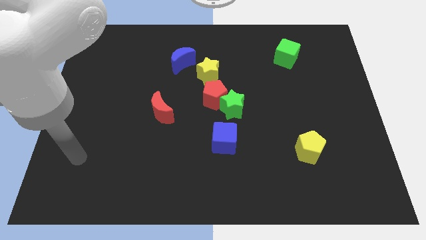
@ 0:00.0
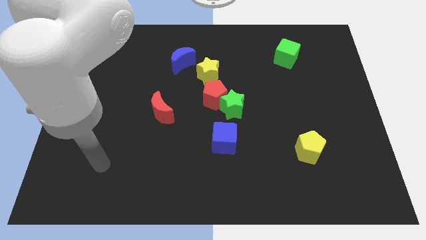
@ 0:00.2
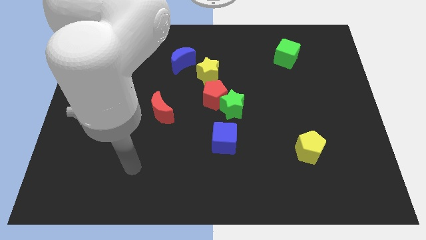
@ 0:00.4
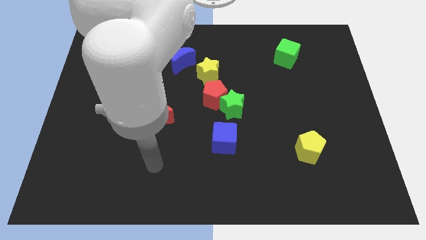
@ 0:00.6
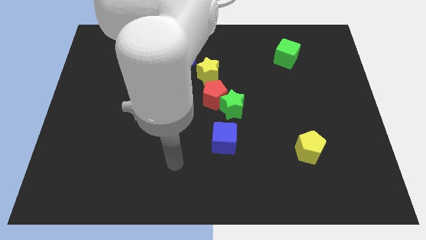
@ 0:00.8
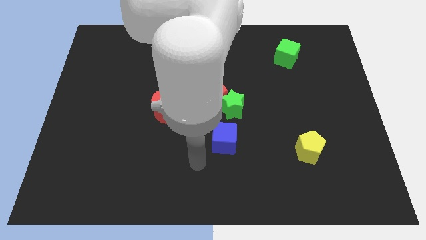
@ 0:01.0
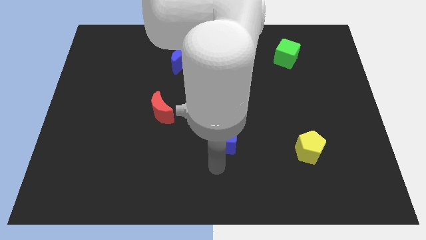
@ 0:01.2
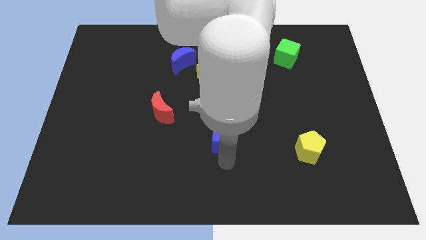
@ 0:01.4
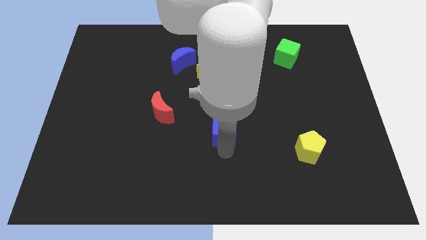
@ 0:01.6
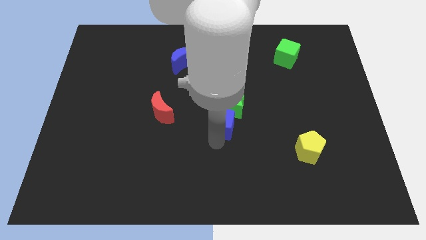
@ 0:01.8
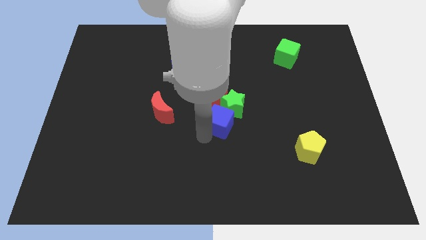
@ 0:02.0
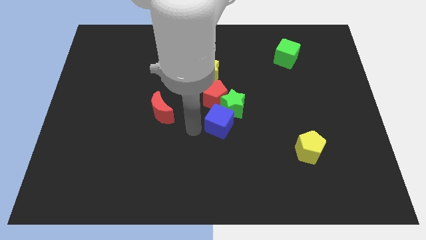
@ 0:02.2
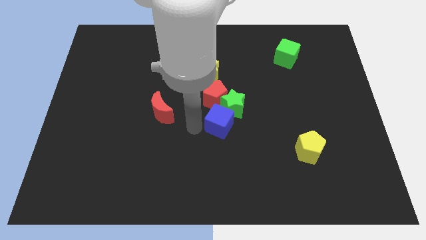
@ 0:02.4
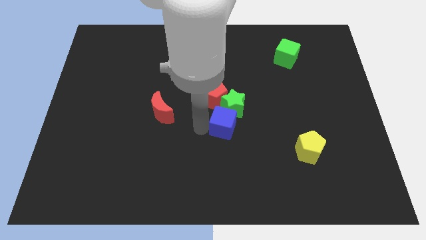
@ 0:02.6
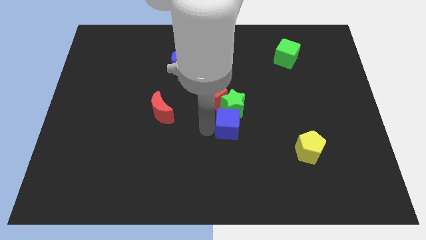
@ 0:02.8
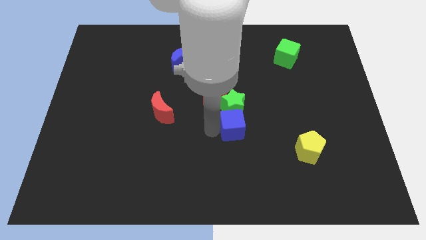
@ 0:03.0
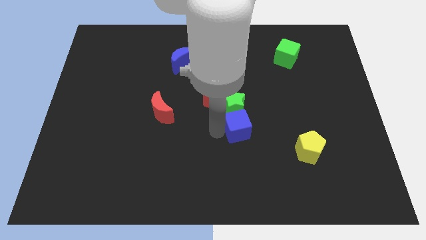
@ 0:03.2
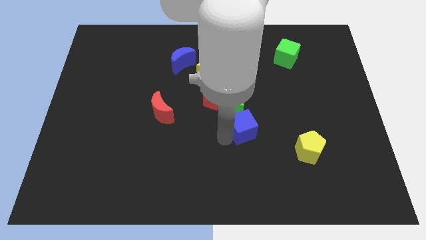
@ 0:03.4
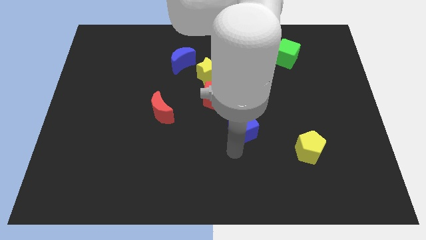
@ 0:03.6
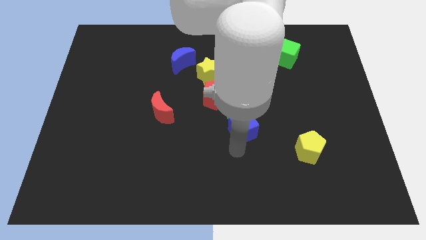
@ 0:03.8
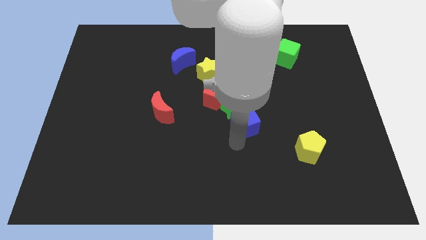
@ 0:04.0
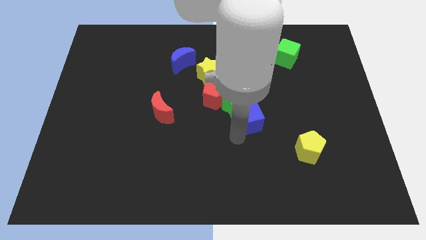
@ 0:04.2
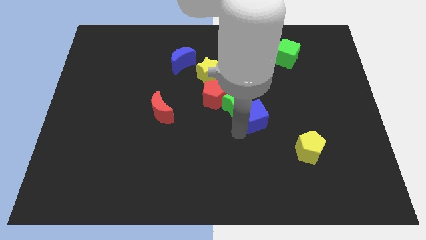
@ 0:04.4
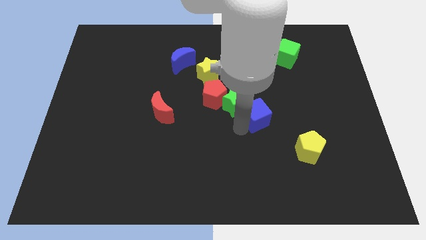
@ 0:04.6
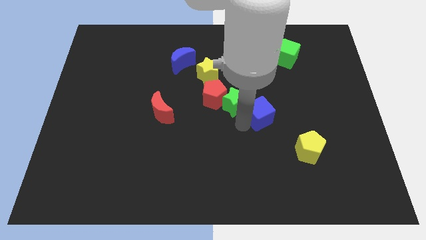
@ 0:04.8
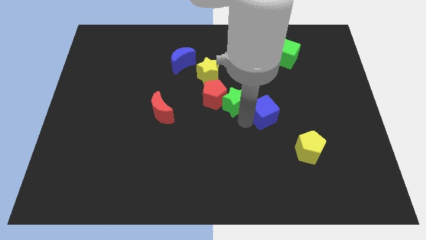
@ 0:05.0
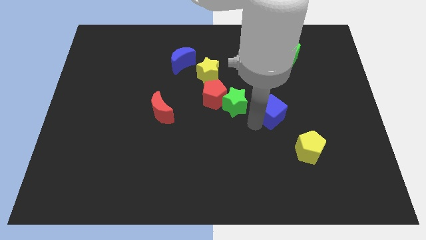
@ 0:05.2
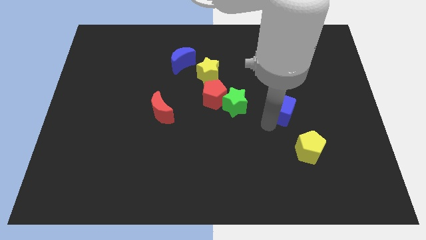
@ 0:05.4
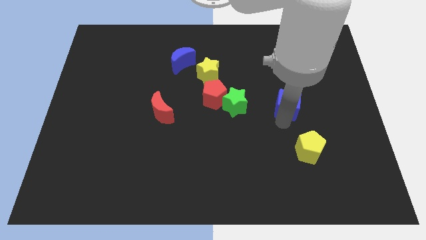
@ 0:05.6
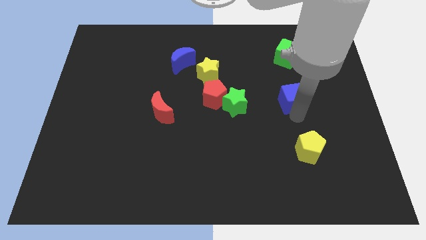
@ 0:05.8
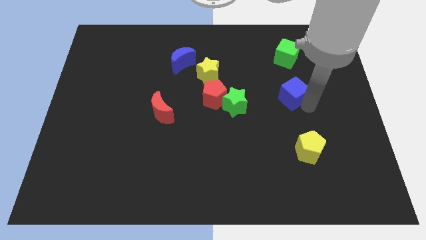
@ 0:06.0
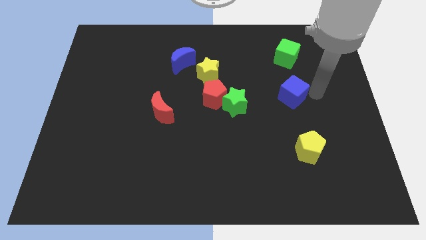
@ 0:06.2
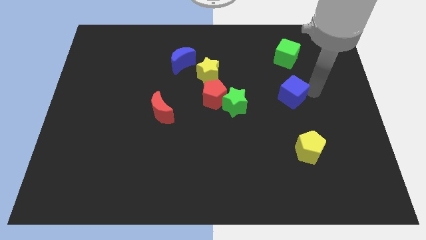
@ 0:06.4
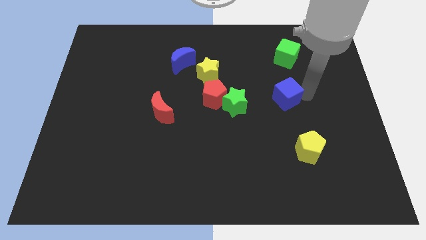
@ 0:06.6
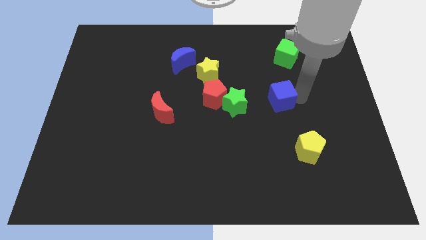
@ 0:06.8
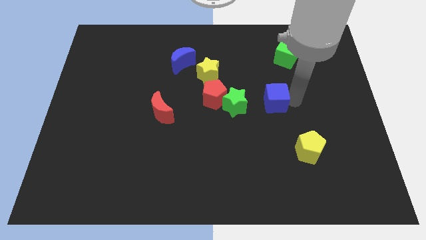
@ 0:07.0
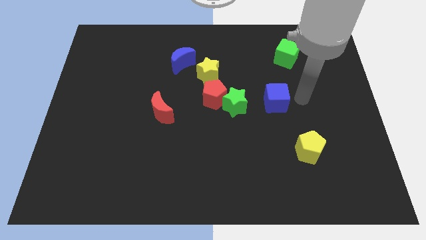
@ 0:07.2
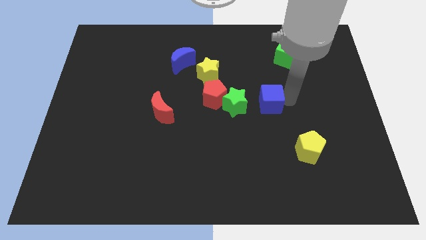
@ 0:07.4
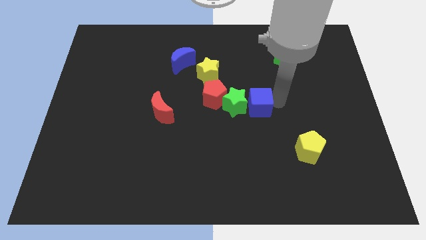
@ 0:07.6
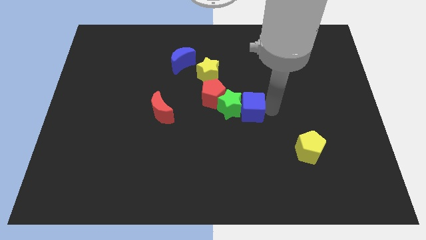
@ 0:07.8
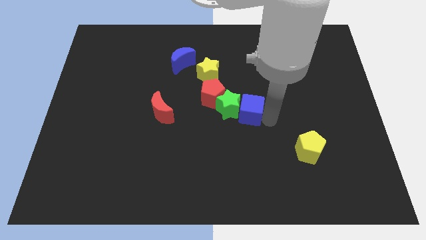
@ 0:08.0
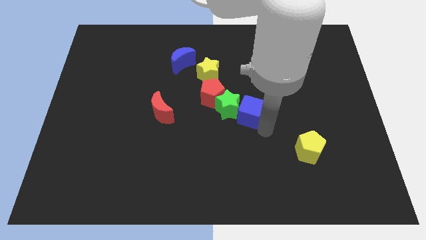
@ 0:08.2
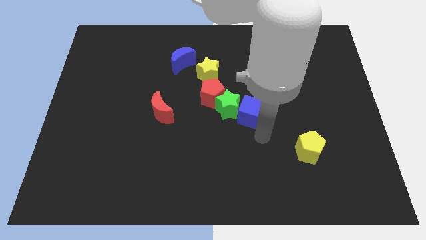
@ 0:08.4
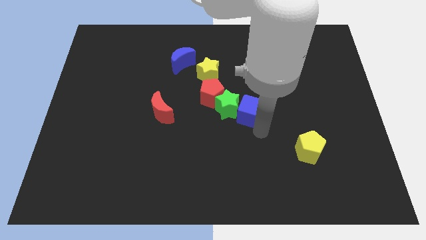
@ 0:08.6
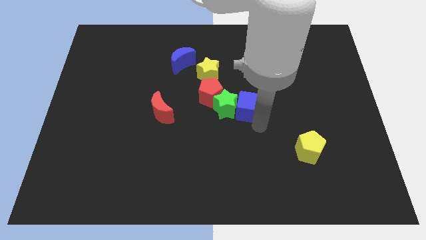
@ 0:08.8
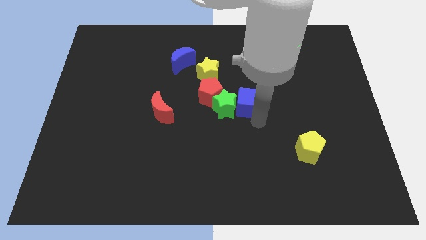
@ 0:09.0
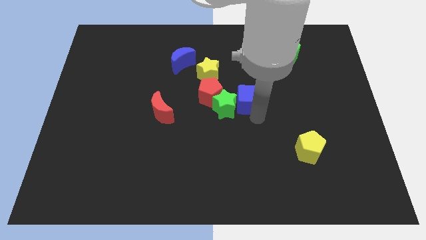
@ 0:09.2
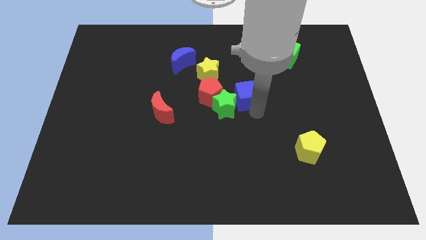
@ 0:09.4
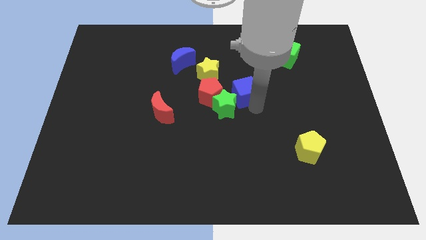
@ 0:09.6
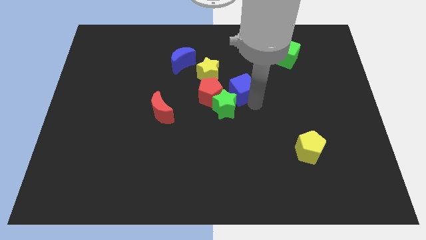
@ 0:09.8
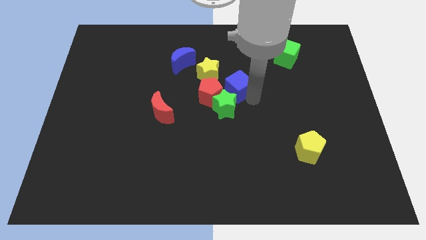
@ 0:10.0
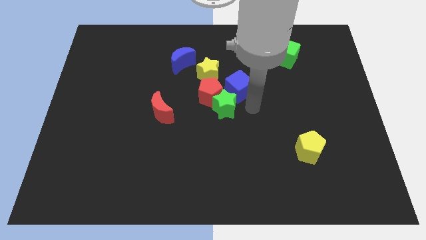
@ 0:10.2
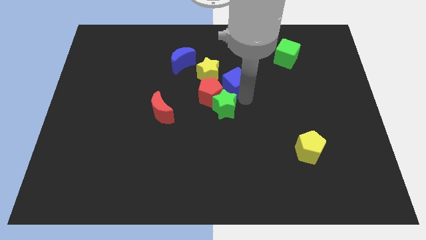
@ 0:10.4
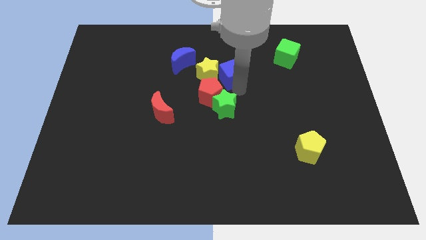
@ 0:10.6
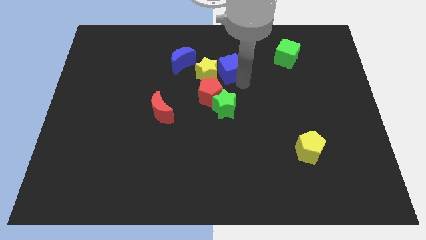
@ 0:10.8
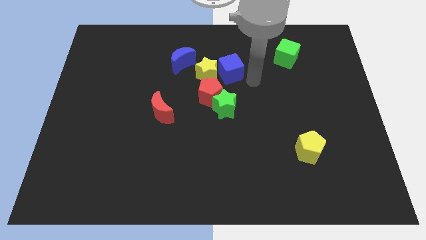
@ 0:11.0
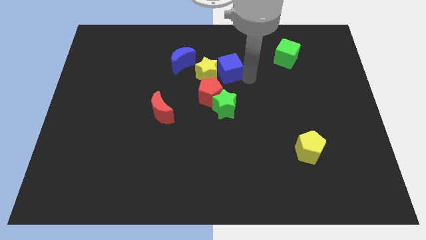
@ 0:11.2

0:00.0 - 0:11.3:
slide the blue cube above the red pentagon

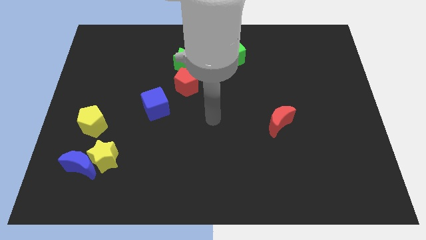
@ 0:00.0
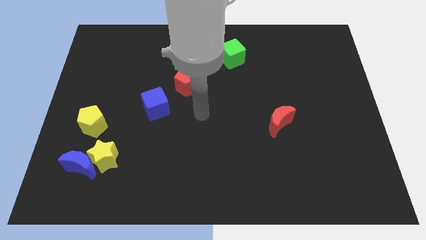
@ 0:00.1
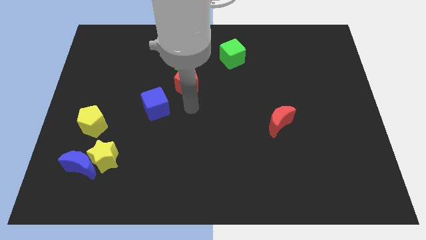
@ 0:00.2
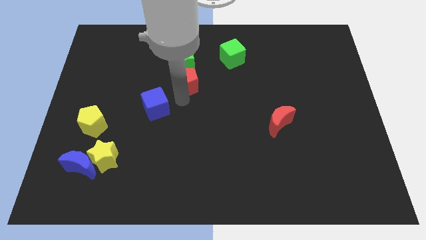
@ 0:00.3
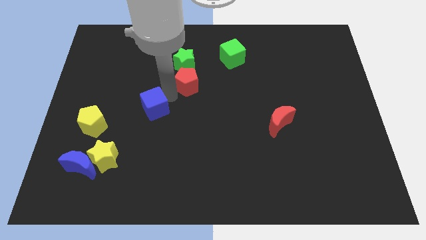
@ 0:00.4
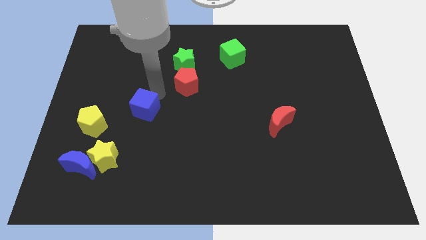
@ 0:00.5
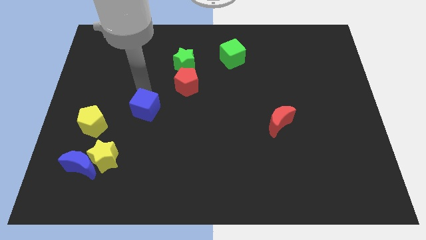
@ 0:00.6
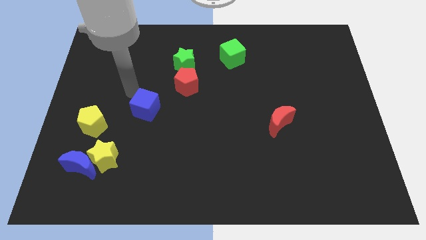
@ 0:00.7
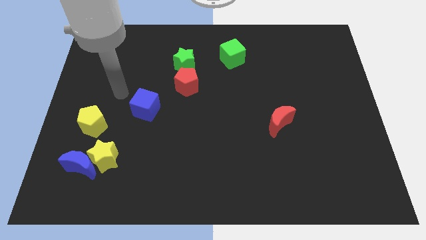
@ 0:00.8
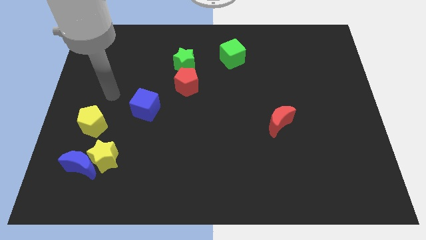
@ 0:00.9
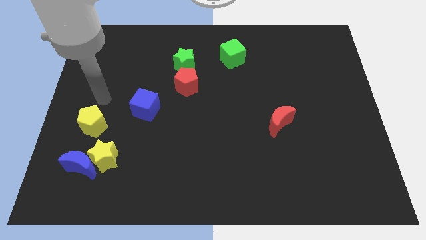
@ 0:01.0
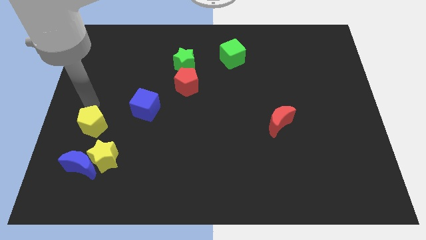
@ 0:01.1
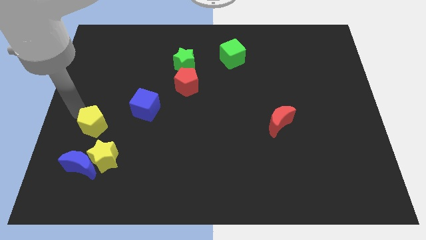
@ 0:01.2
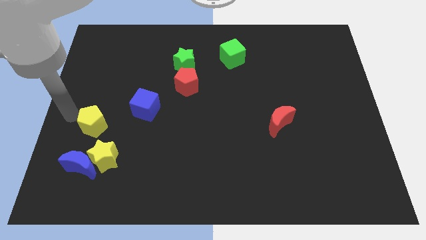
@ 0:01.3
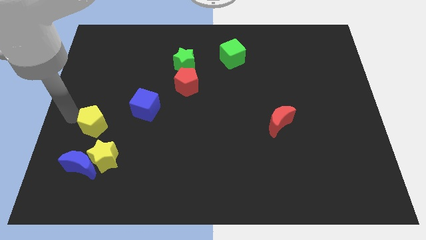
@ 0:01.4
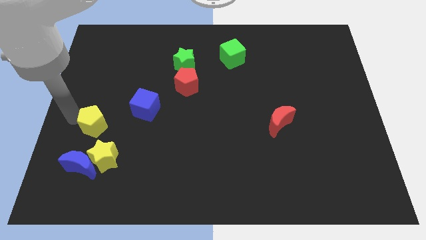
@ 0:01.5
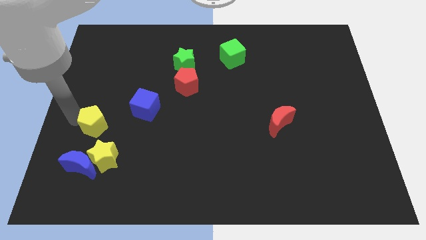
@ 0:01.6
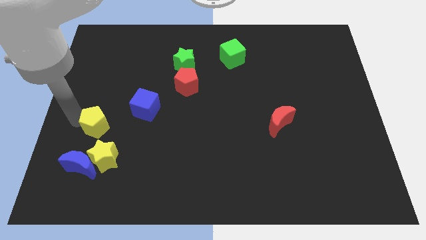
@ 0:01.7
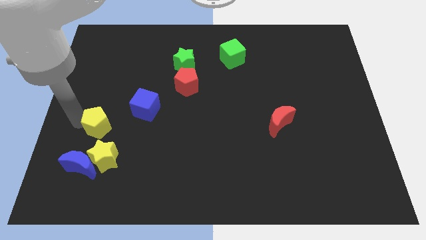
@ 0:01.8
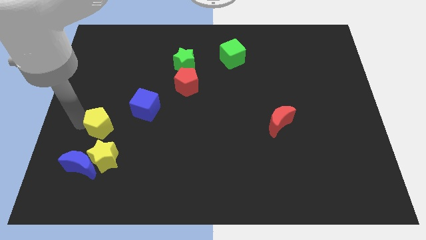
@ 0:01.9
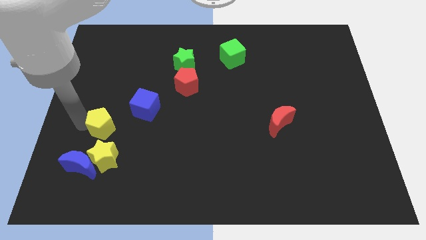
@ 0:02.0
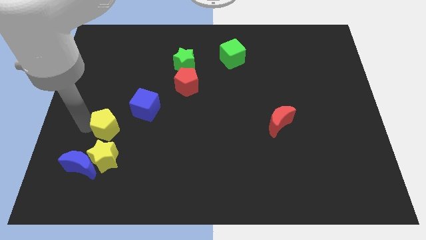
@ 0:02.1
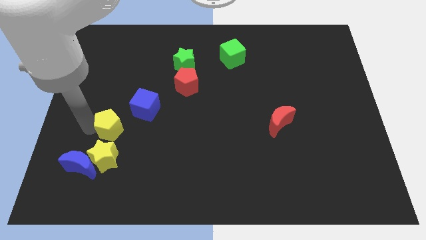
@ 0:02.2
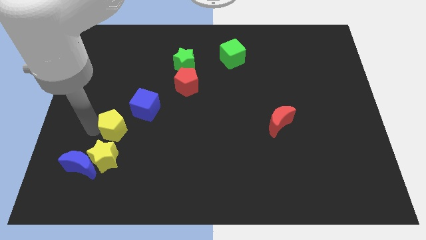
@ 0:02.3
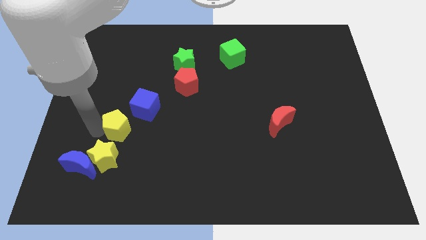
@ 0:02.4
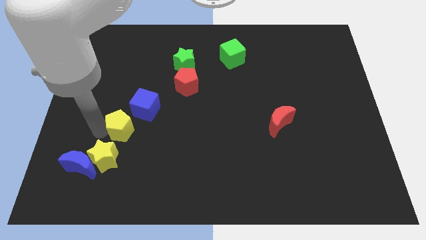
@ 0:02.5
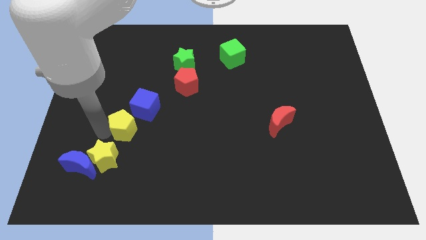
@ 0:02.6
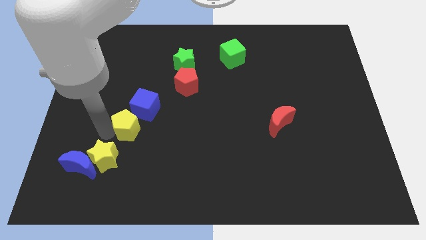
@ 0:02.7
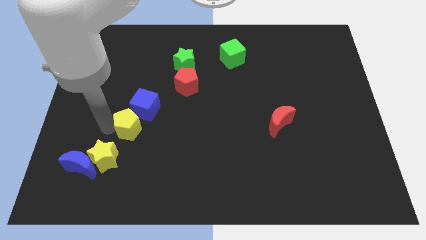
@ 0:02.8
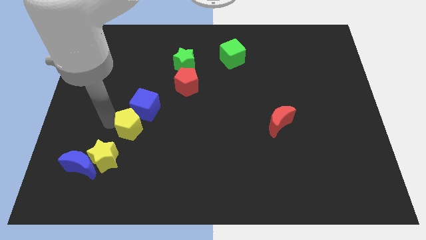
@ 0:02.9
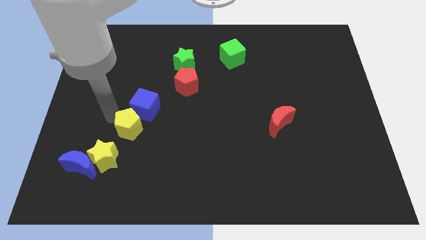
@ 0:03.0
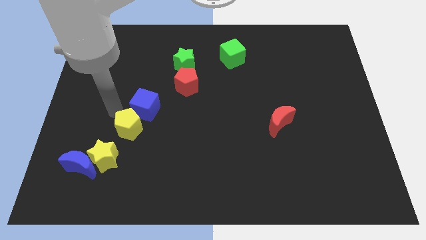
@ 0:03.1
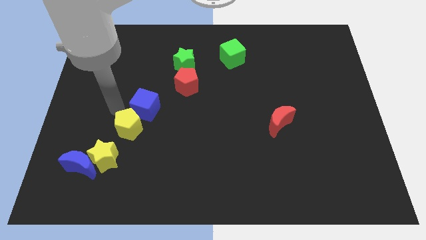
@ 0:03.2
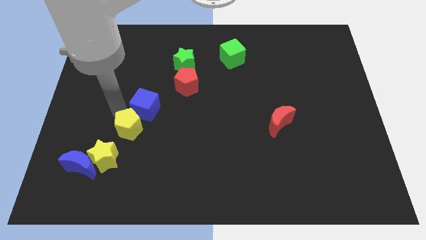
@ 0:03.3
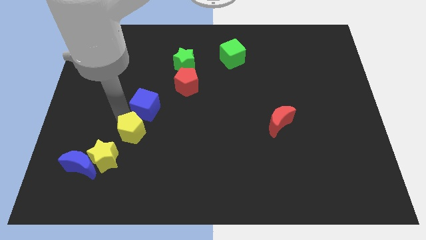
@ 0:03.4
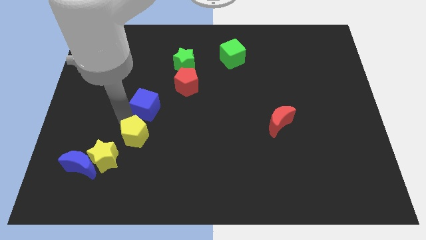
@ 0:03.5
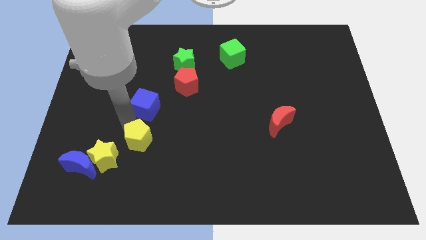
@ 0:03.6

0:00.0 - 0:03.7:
put the yellow pentagon right of the yellow star
